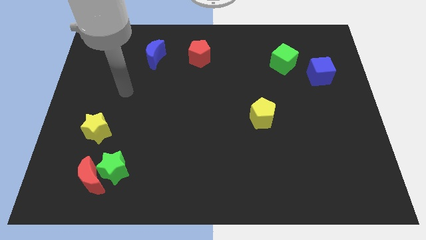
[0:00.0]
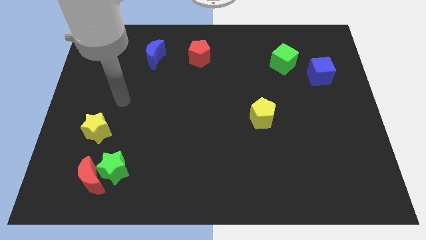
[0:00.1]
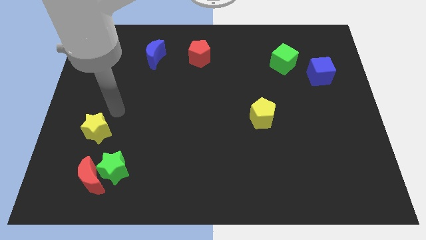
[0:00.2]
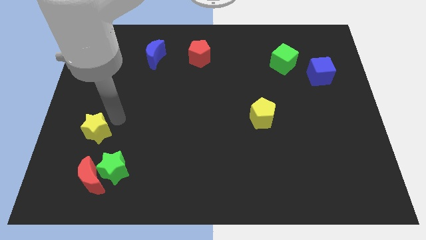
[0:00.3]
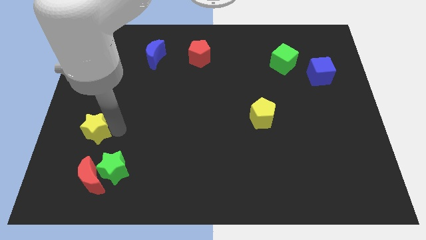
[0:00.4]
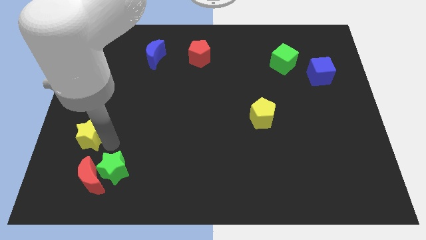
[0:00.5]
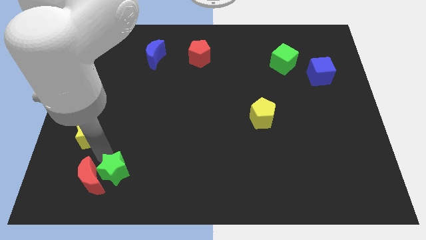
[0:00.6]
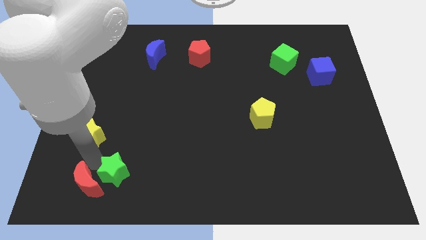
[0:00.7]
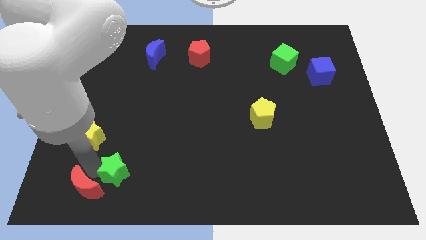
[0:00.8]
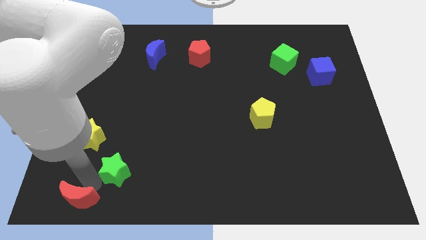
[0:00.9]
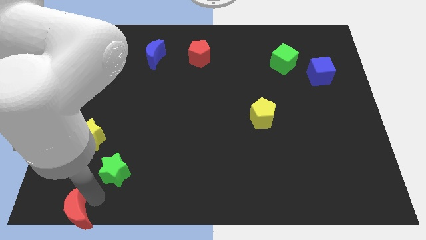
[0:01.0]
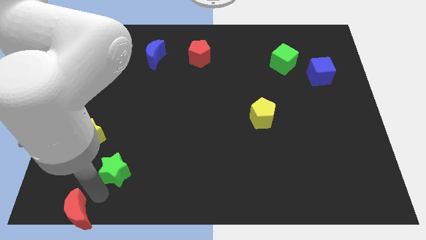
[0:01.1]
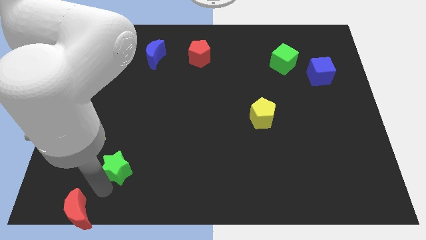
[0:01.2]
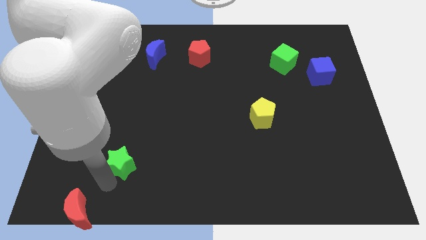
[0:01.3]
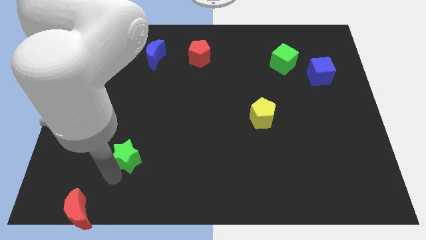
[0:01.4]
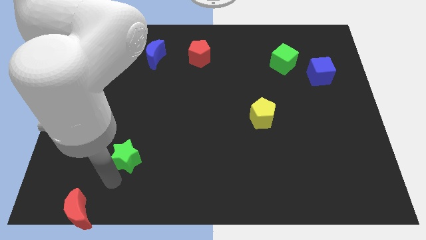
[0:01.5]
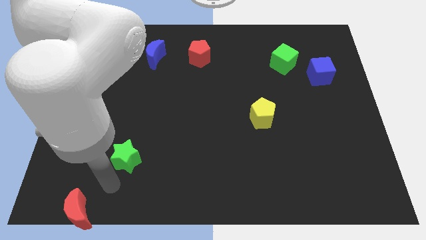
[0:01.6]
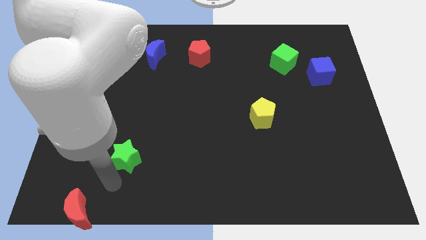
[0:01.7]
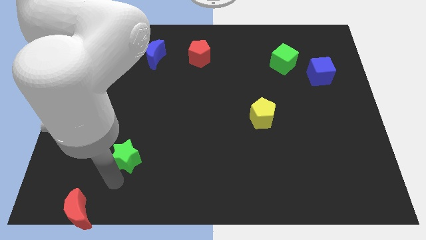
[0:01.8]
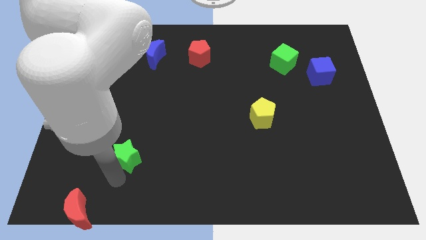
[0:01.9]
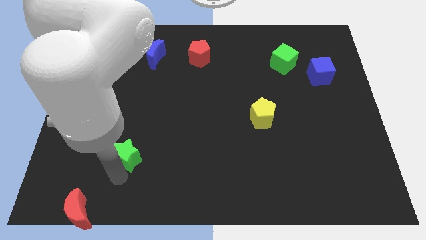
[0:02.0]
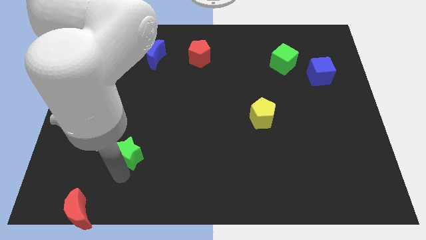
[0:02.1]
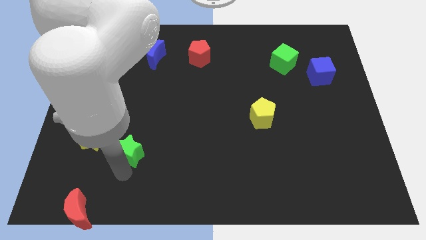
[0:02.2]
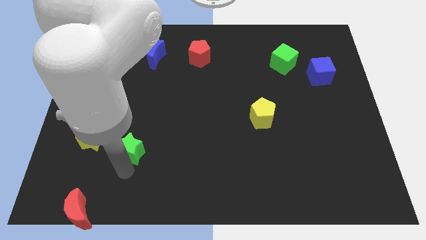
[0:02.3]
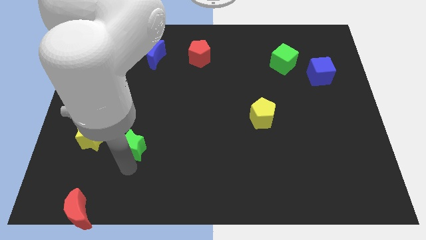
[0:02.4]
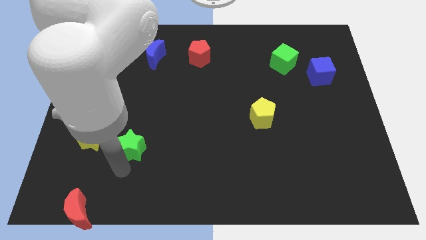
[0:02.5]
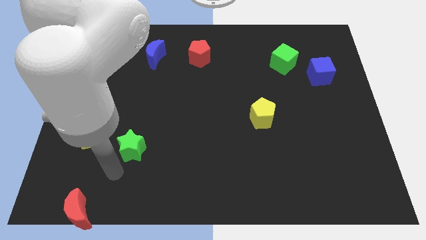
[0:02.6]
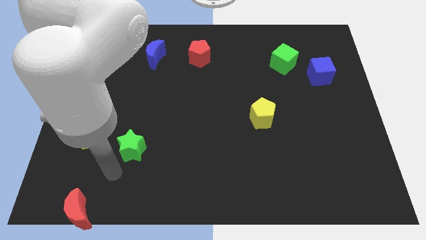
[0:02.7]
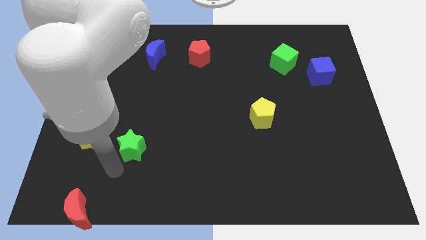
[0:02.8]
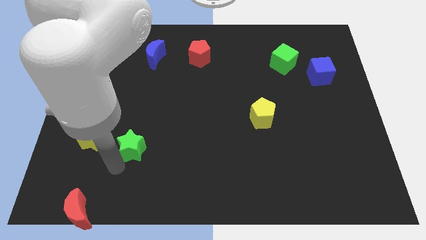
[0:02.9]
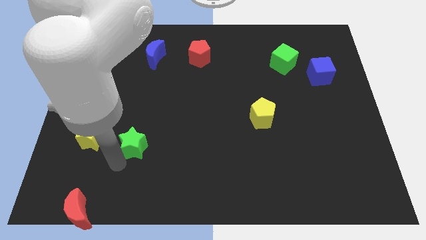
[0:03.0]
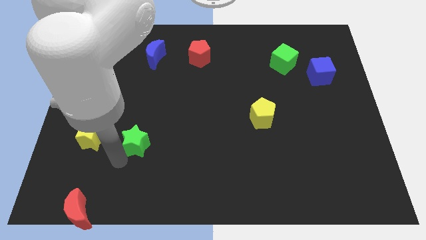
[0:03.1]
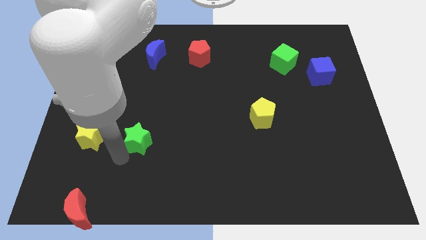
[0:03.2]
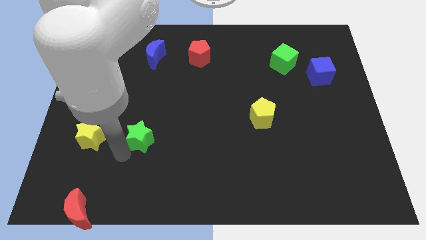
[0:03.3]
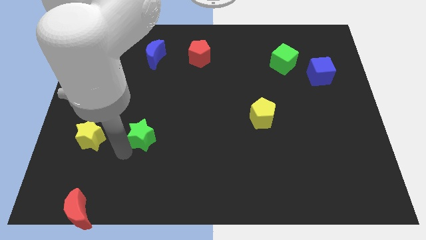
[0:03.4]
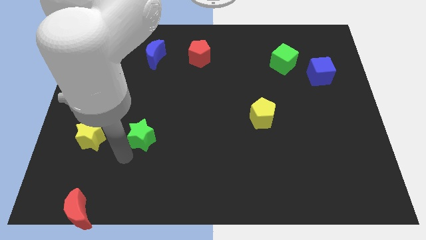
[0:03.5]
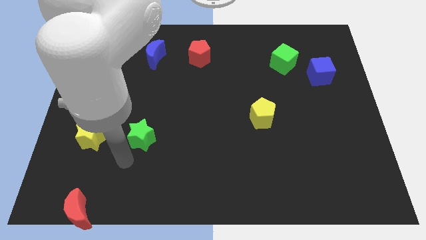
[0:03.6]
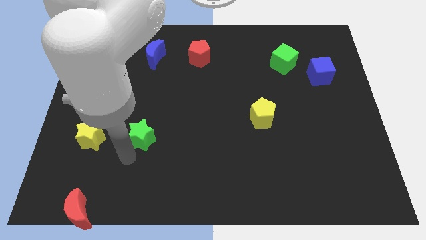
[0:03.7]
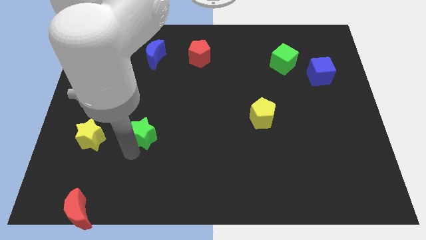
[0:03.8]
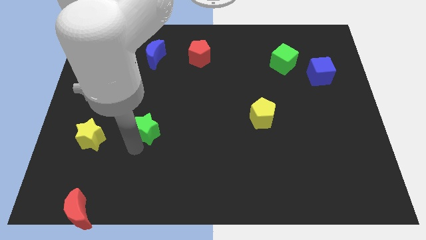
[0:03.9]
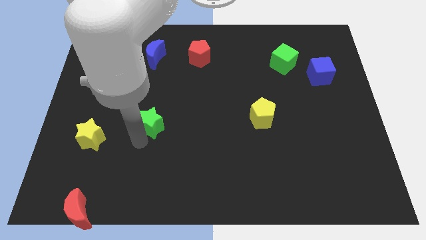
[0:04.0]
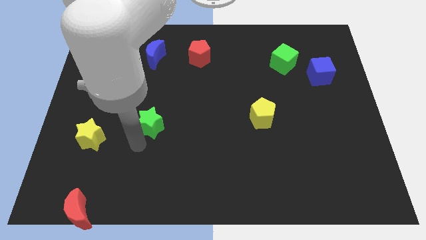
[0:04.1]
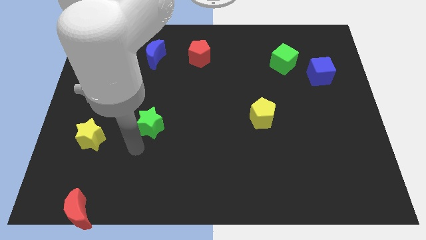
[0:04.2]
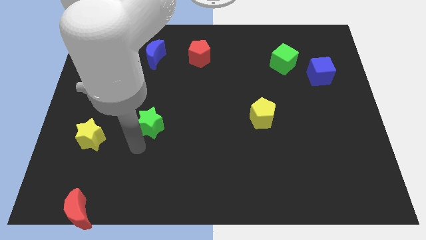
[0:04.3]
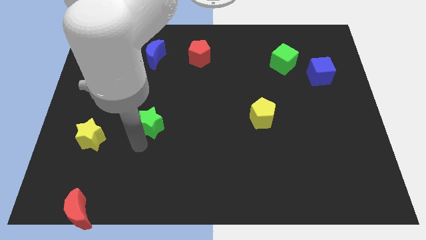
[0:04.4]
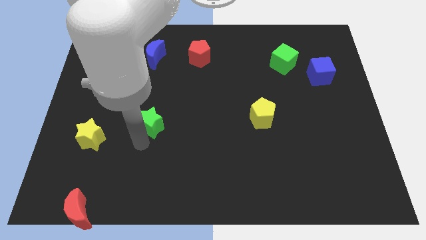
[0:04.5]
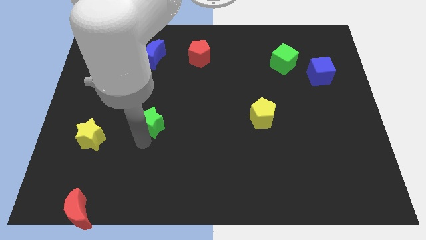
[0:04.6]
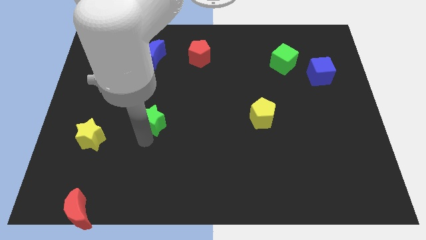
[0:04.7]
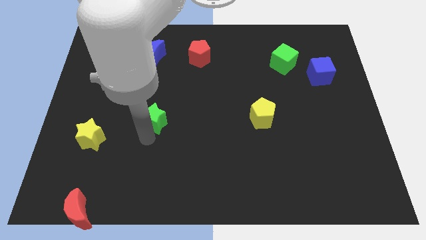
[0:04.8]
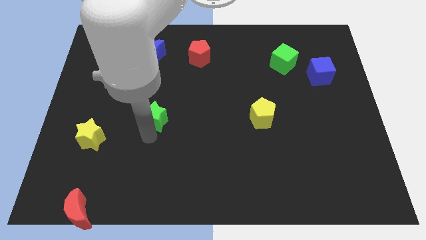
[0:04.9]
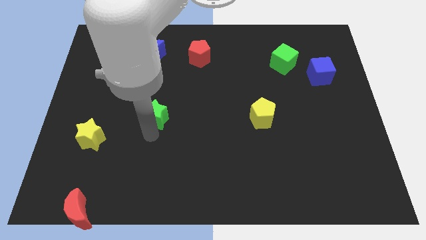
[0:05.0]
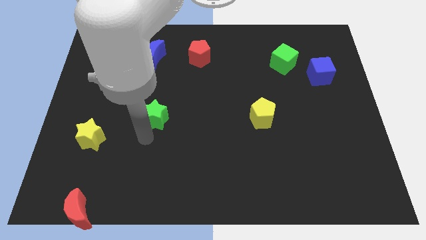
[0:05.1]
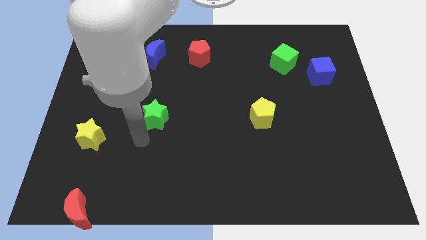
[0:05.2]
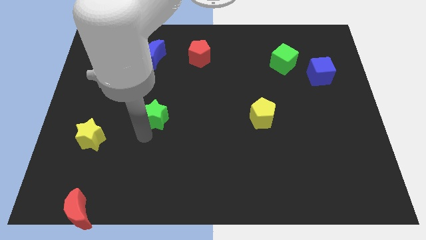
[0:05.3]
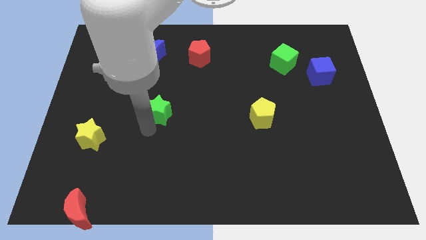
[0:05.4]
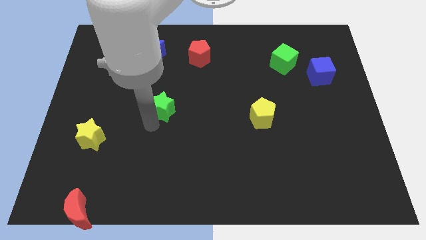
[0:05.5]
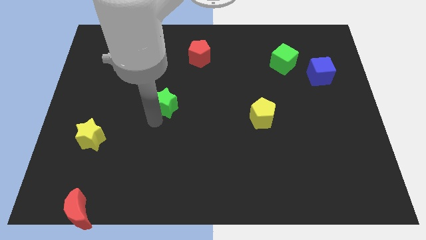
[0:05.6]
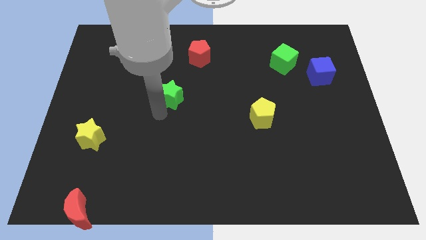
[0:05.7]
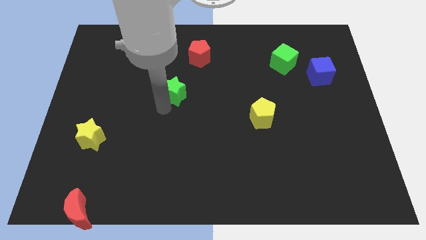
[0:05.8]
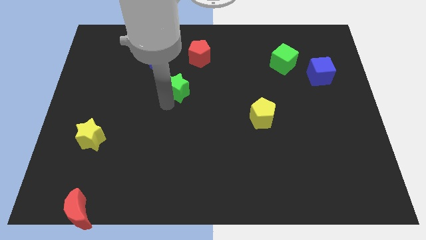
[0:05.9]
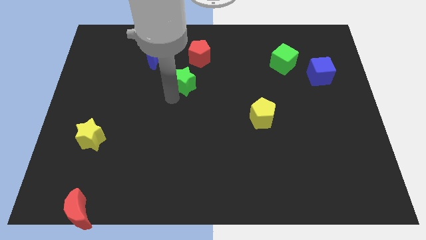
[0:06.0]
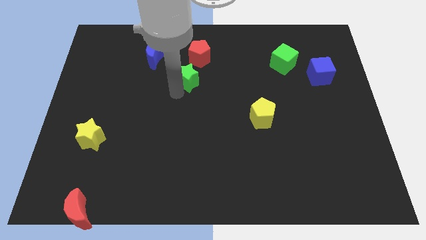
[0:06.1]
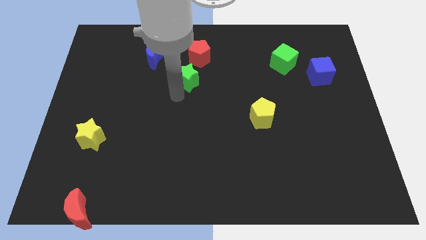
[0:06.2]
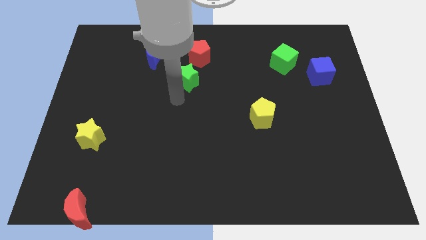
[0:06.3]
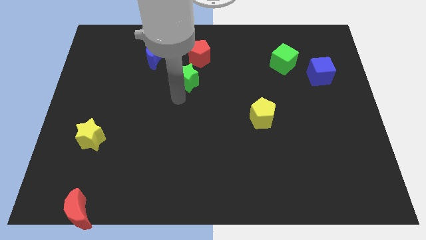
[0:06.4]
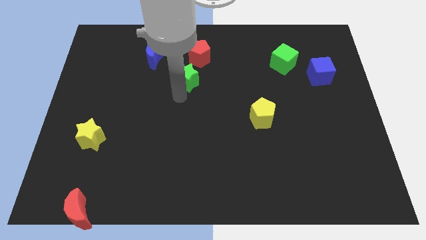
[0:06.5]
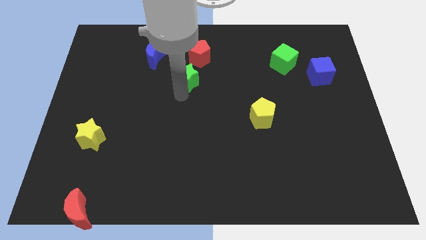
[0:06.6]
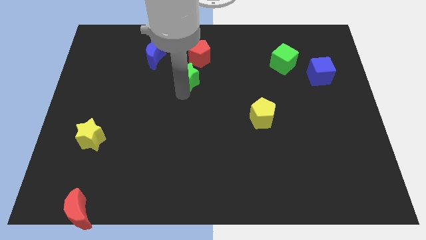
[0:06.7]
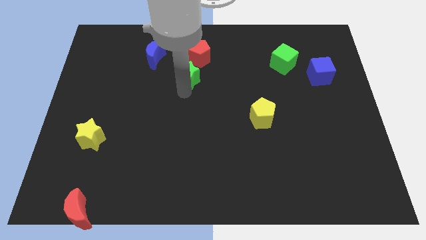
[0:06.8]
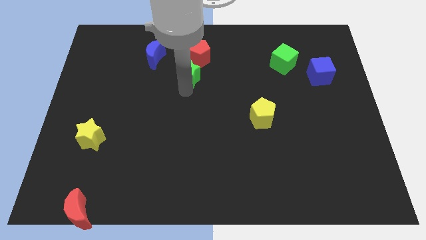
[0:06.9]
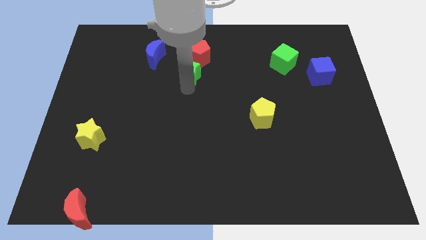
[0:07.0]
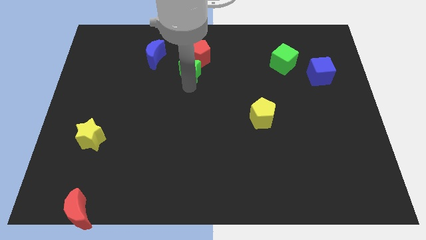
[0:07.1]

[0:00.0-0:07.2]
put the green star towards the red pentagon

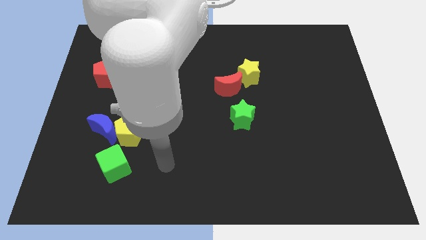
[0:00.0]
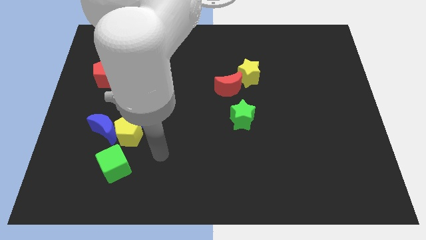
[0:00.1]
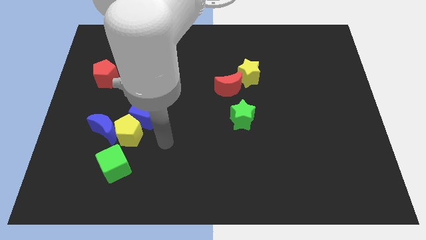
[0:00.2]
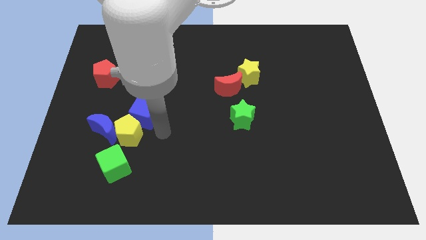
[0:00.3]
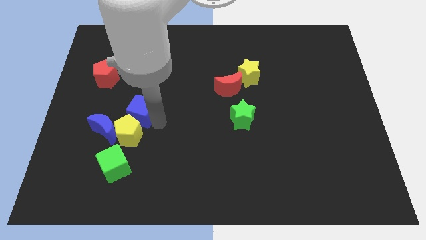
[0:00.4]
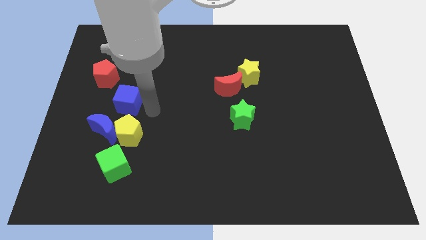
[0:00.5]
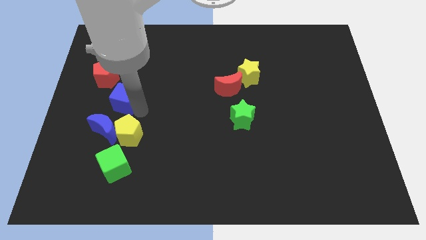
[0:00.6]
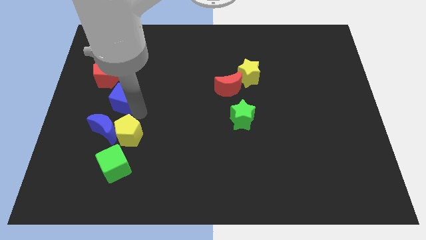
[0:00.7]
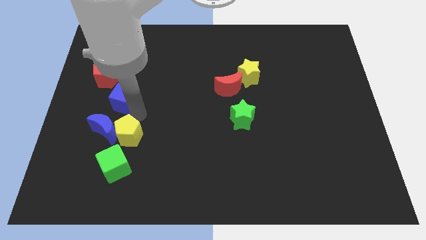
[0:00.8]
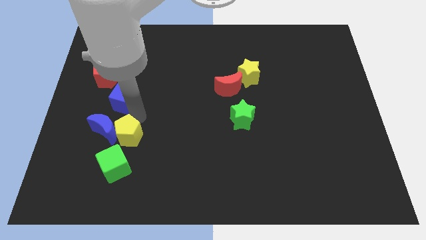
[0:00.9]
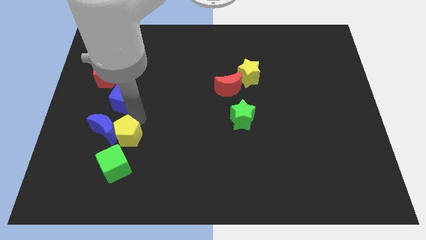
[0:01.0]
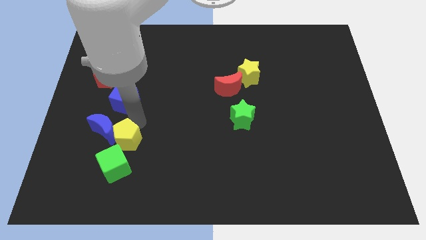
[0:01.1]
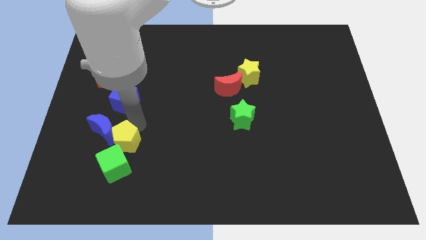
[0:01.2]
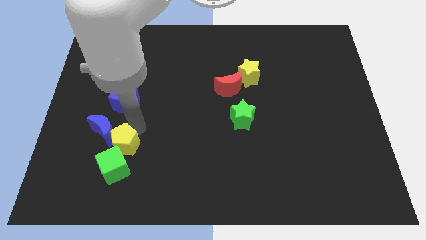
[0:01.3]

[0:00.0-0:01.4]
put the yellow pentagon next to the green cube
